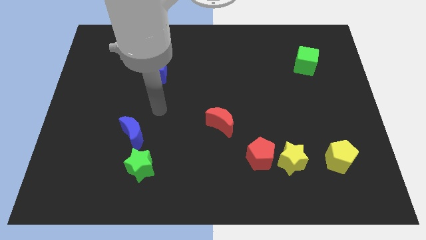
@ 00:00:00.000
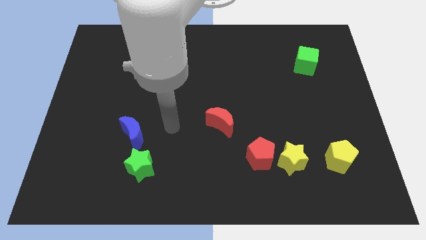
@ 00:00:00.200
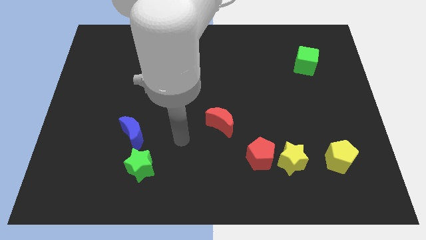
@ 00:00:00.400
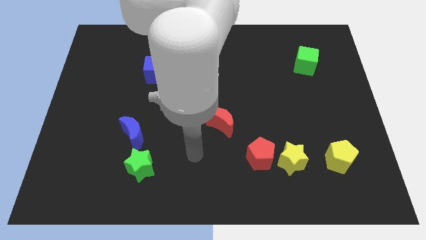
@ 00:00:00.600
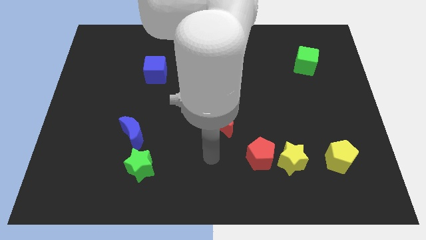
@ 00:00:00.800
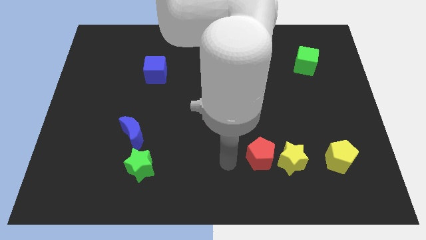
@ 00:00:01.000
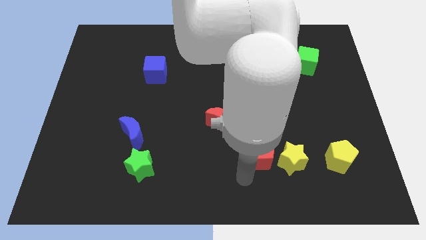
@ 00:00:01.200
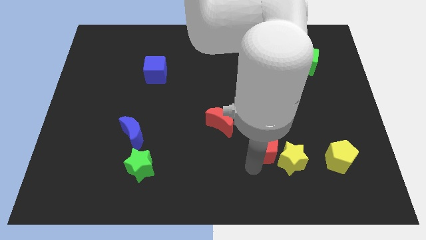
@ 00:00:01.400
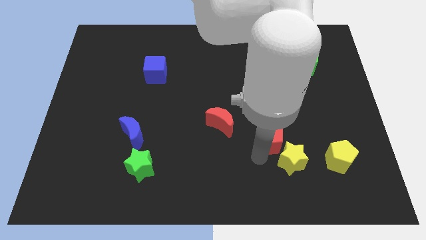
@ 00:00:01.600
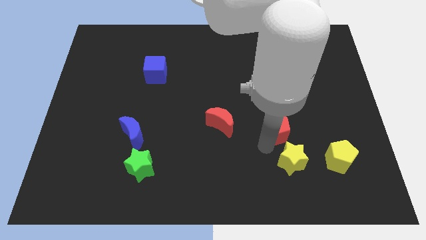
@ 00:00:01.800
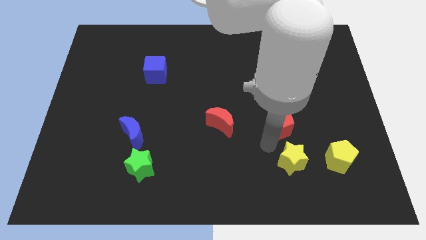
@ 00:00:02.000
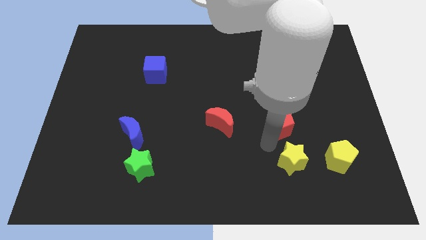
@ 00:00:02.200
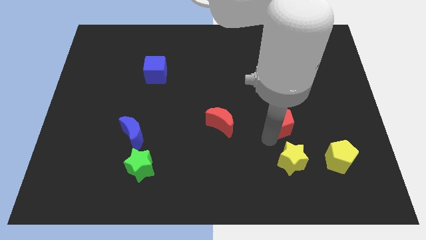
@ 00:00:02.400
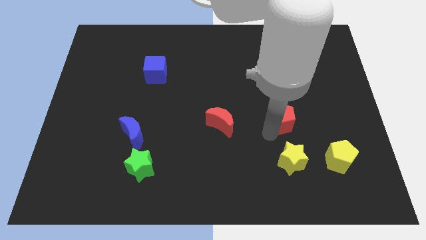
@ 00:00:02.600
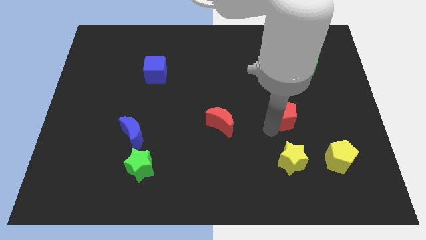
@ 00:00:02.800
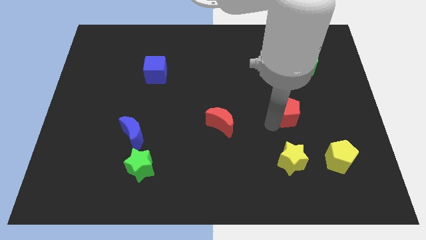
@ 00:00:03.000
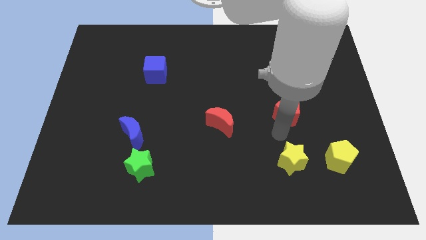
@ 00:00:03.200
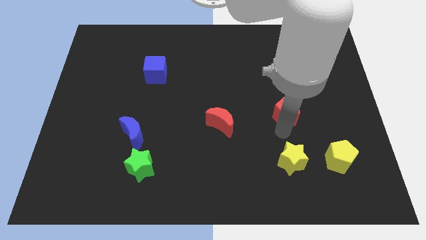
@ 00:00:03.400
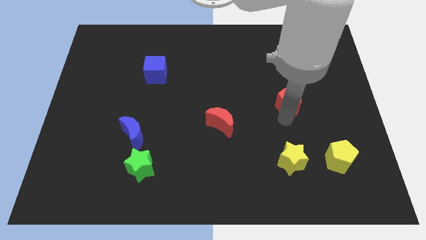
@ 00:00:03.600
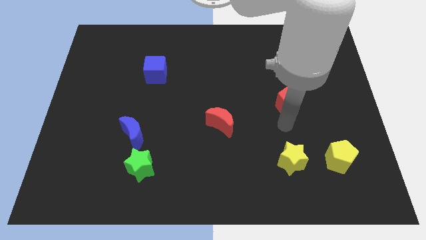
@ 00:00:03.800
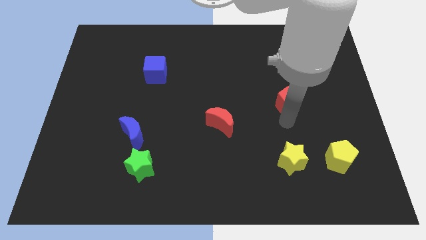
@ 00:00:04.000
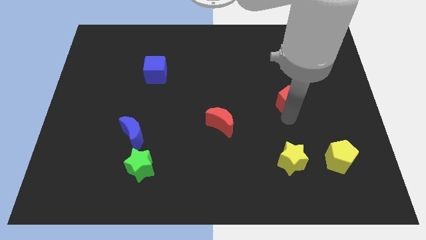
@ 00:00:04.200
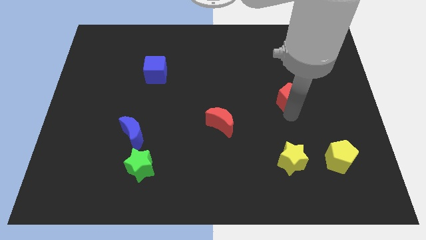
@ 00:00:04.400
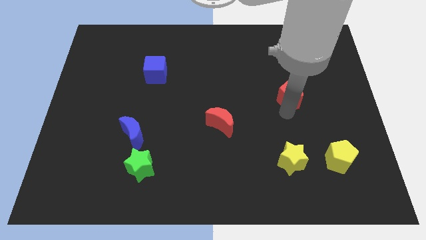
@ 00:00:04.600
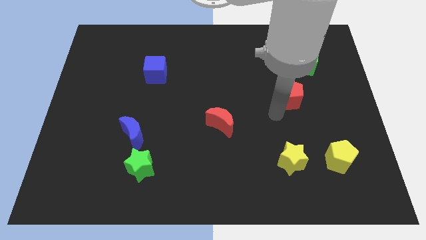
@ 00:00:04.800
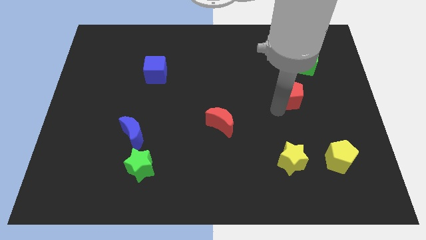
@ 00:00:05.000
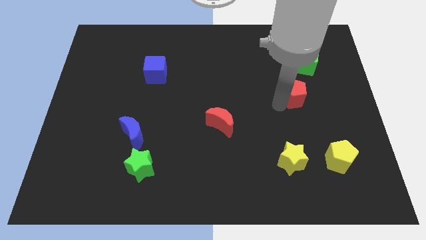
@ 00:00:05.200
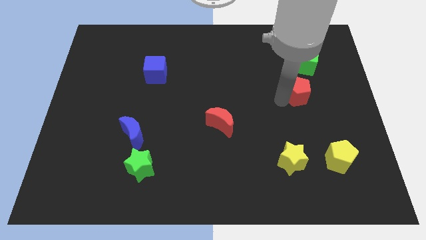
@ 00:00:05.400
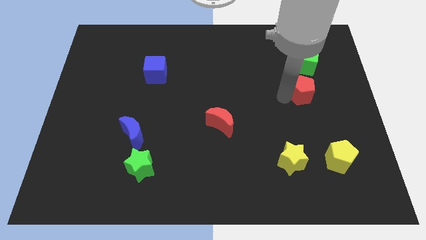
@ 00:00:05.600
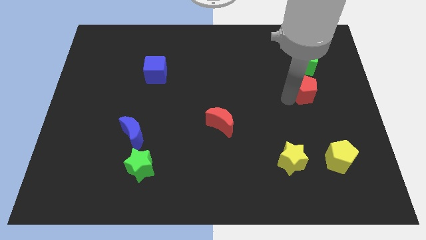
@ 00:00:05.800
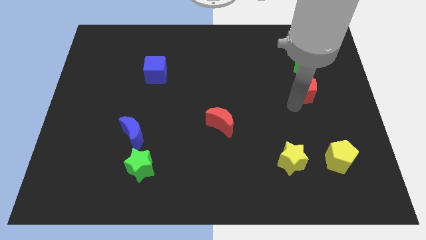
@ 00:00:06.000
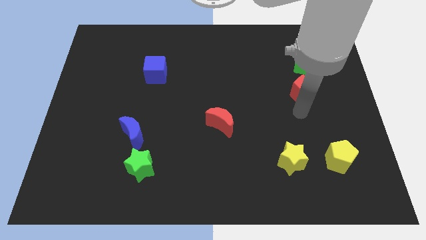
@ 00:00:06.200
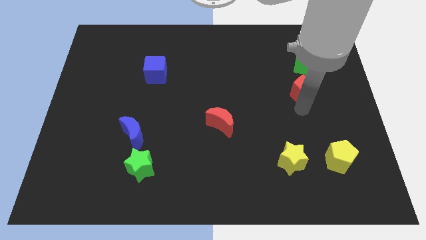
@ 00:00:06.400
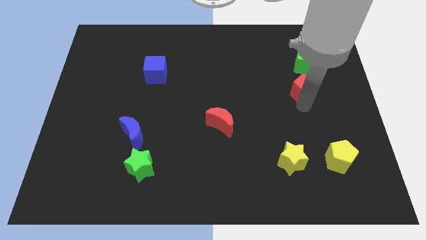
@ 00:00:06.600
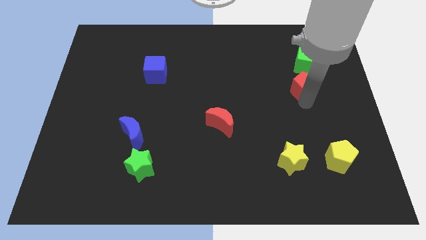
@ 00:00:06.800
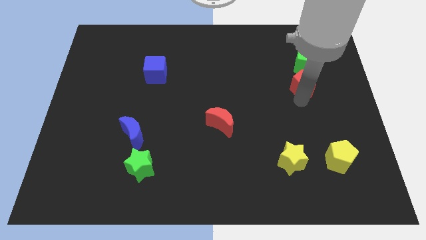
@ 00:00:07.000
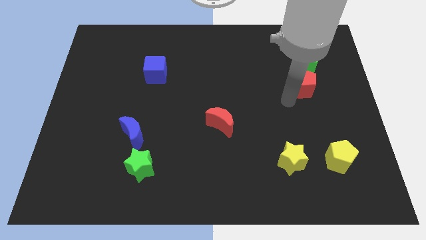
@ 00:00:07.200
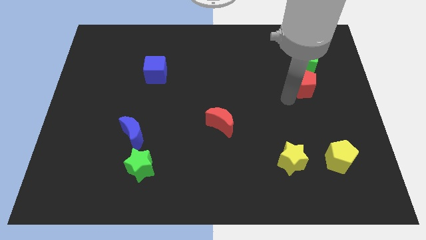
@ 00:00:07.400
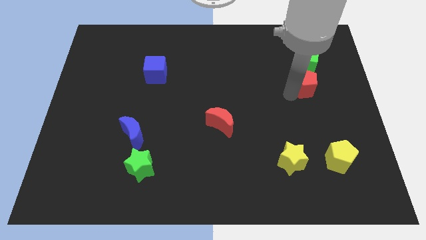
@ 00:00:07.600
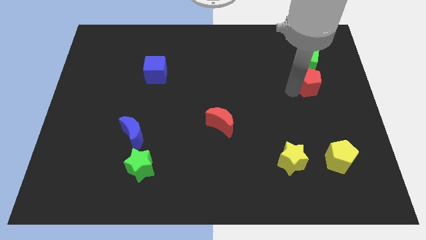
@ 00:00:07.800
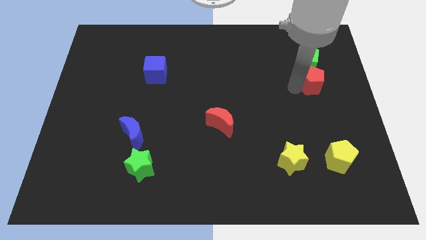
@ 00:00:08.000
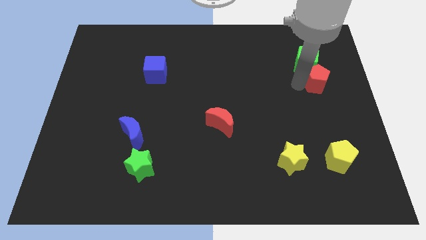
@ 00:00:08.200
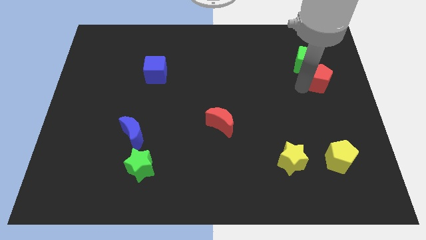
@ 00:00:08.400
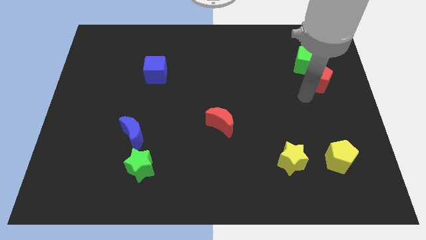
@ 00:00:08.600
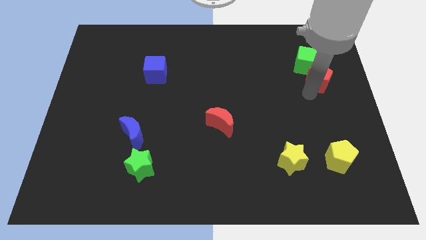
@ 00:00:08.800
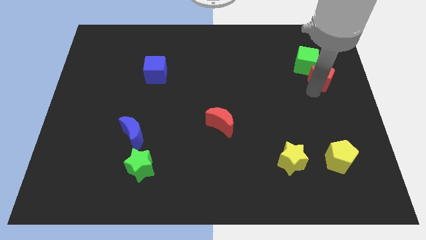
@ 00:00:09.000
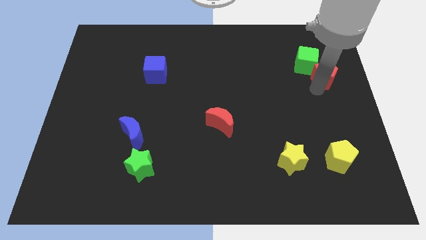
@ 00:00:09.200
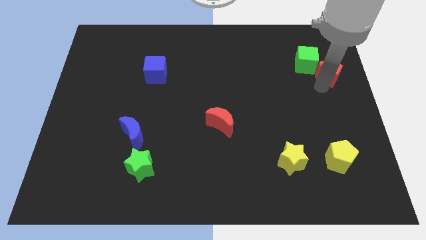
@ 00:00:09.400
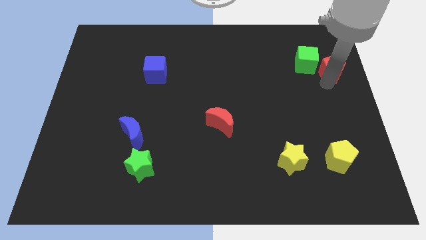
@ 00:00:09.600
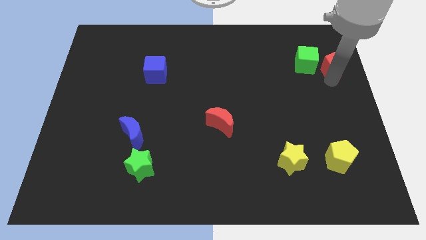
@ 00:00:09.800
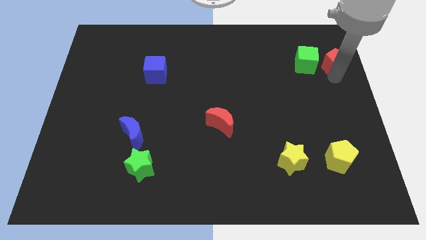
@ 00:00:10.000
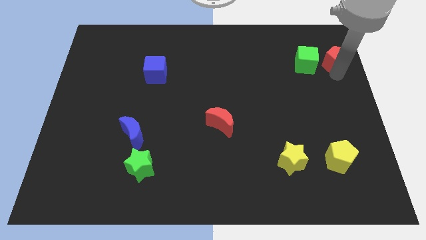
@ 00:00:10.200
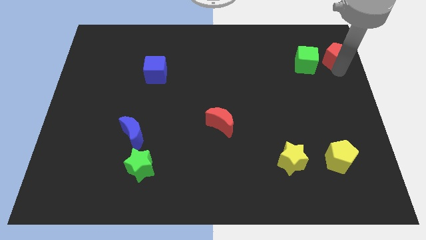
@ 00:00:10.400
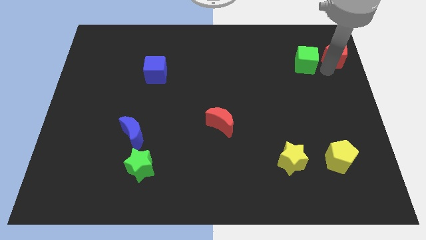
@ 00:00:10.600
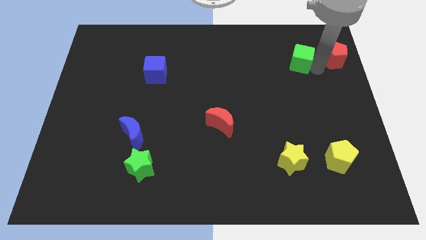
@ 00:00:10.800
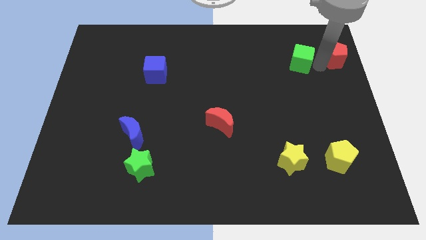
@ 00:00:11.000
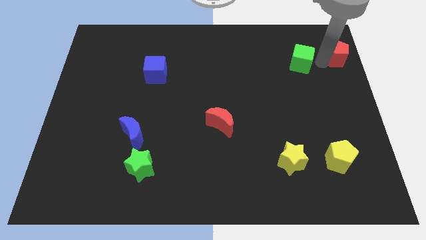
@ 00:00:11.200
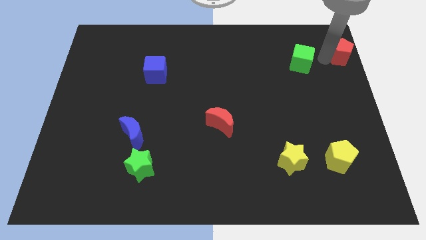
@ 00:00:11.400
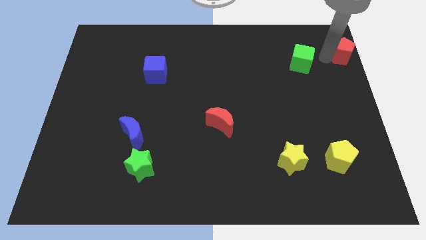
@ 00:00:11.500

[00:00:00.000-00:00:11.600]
push the red pentagon to the top right corner

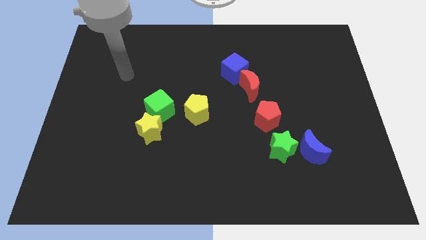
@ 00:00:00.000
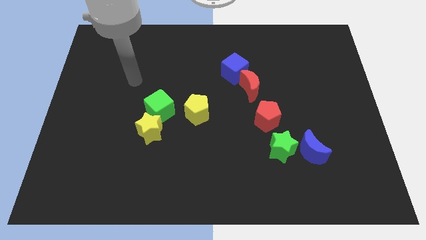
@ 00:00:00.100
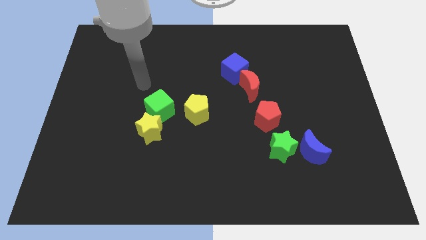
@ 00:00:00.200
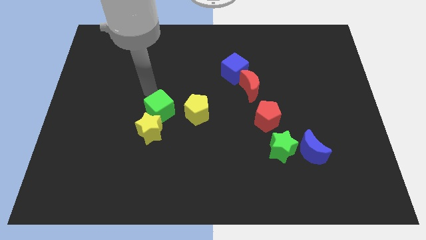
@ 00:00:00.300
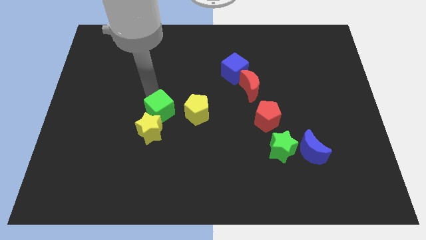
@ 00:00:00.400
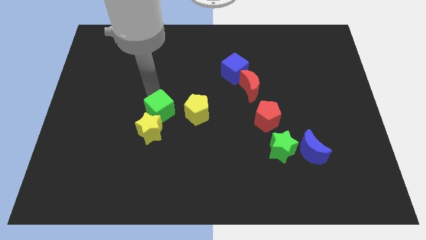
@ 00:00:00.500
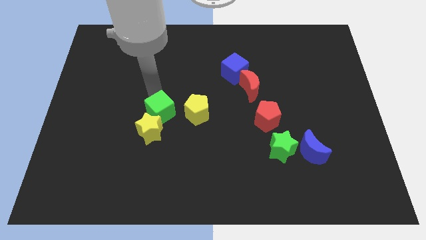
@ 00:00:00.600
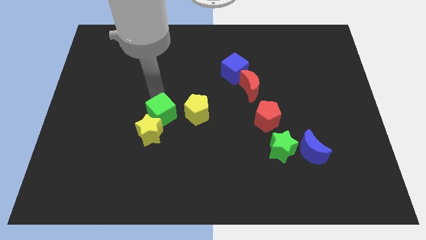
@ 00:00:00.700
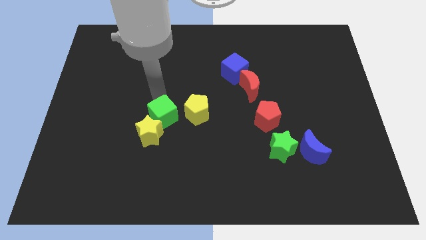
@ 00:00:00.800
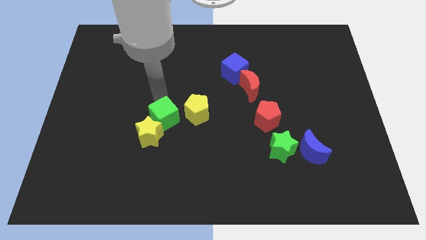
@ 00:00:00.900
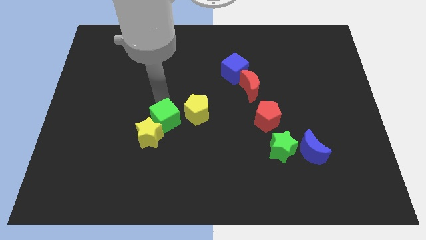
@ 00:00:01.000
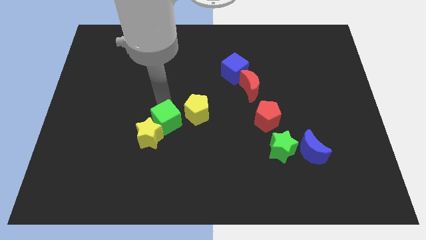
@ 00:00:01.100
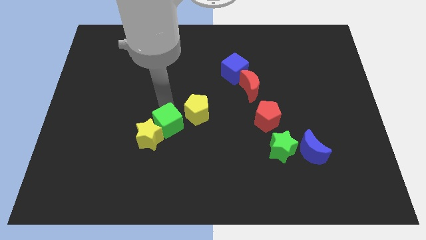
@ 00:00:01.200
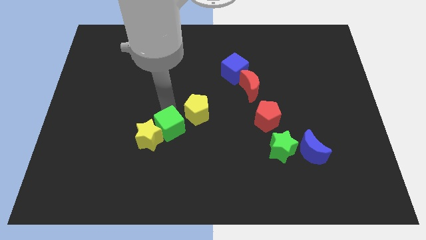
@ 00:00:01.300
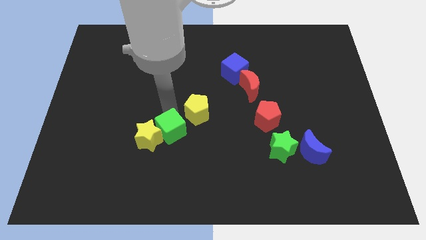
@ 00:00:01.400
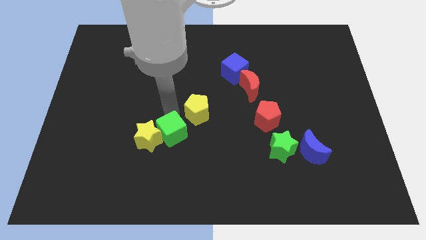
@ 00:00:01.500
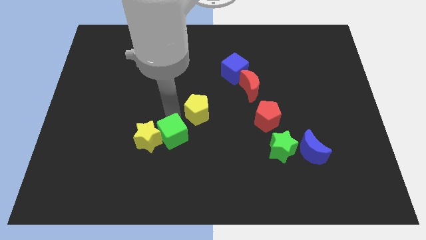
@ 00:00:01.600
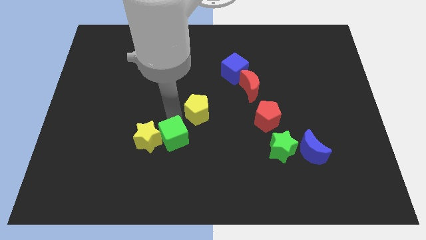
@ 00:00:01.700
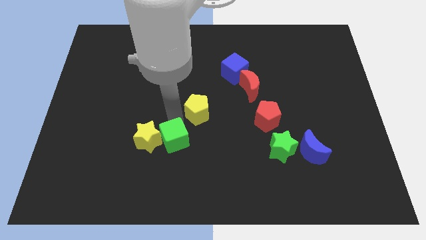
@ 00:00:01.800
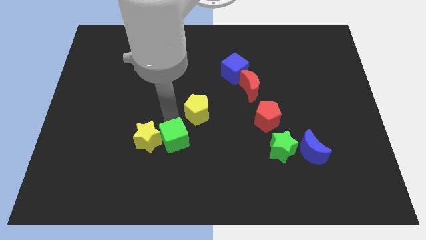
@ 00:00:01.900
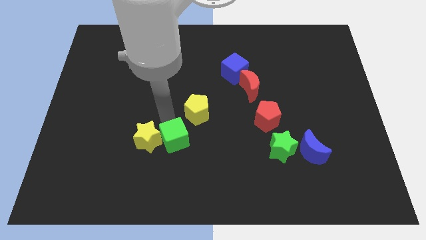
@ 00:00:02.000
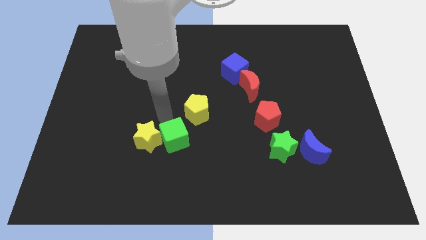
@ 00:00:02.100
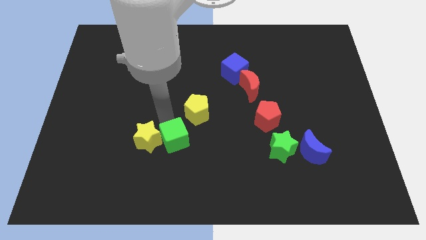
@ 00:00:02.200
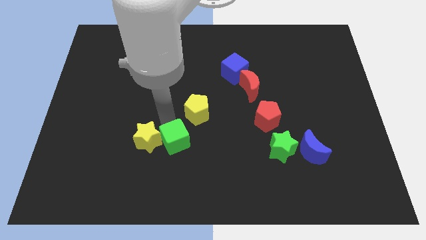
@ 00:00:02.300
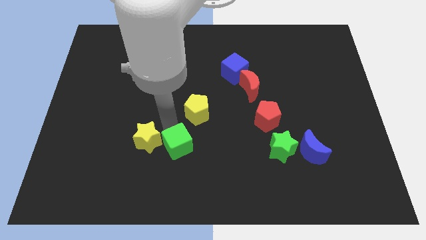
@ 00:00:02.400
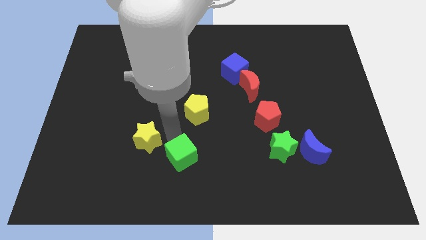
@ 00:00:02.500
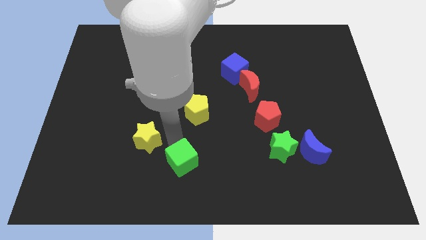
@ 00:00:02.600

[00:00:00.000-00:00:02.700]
slide the green cube to the bottom
